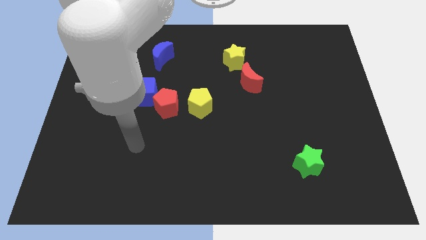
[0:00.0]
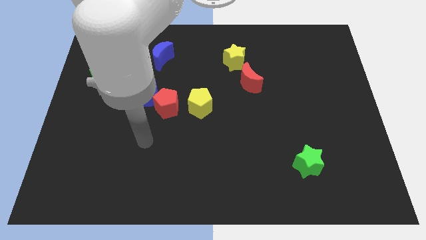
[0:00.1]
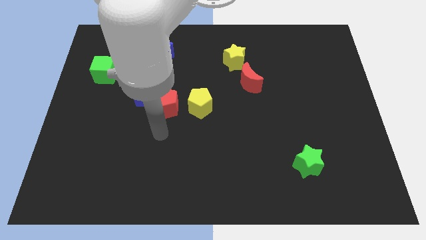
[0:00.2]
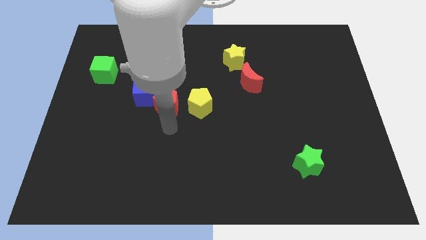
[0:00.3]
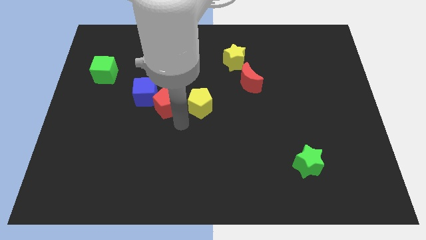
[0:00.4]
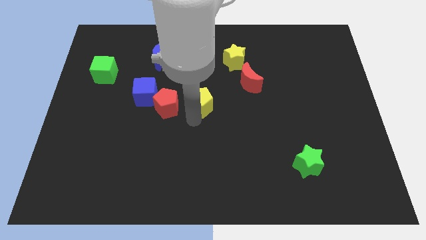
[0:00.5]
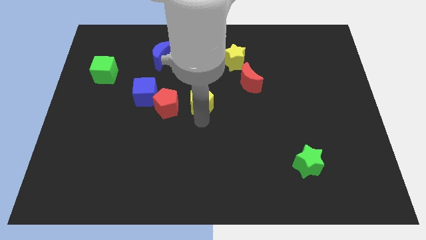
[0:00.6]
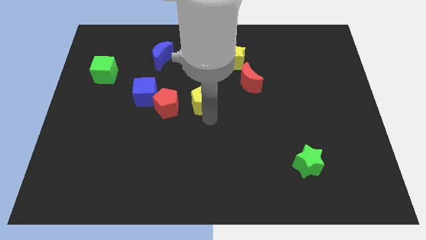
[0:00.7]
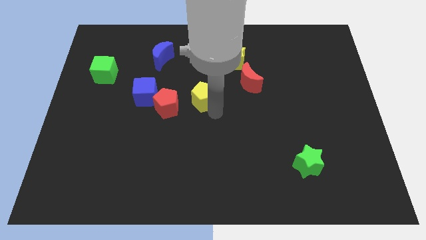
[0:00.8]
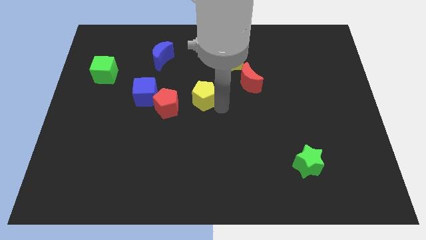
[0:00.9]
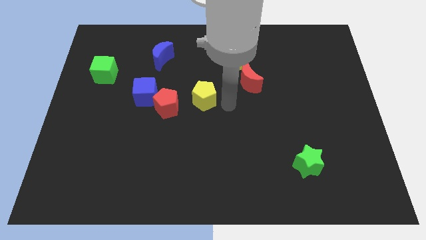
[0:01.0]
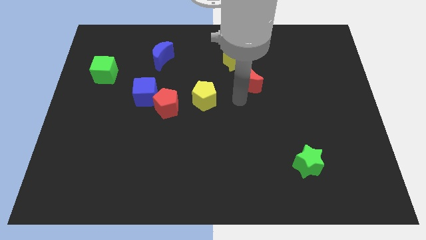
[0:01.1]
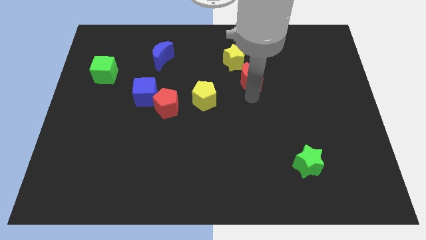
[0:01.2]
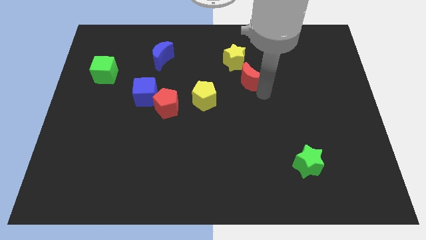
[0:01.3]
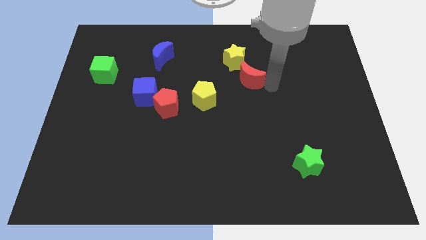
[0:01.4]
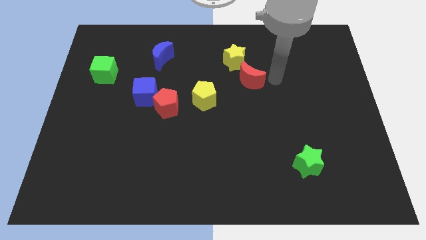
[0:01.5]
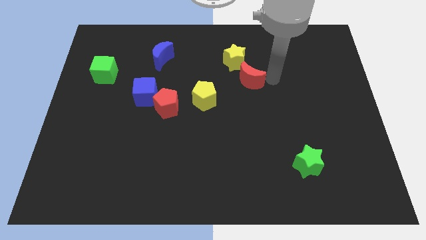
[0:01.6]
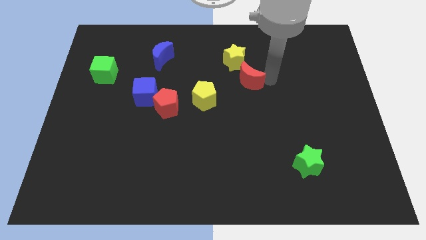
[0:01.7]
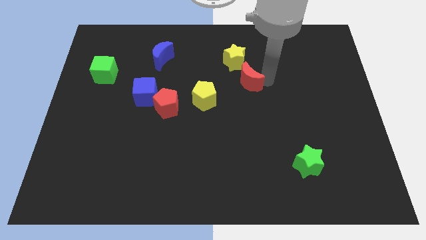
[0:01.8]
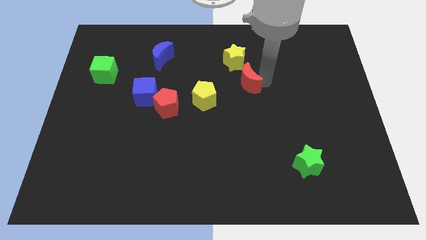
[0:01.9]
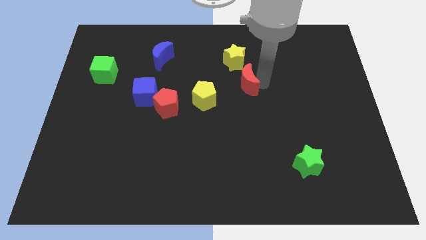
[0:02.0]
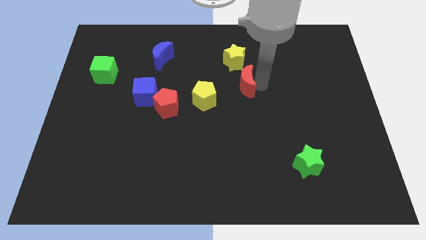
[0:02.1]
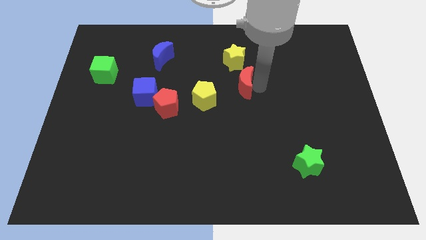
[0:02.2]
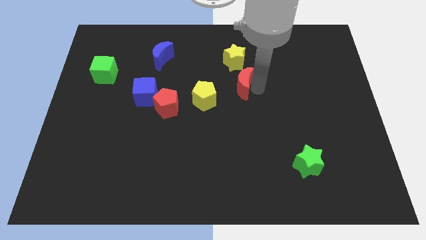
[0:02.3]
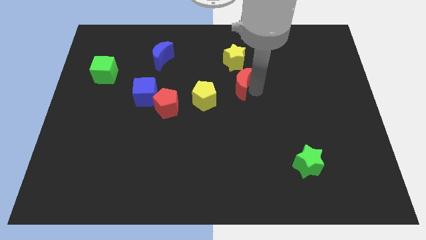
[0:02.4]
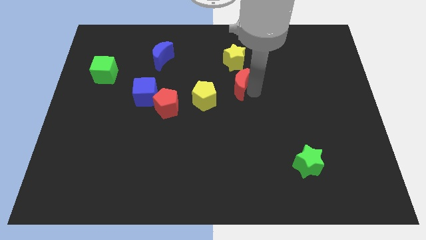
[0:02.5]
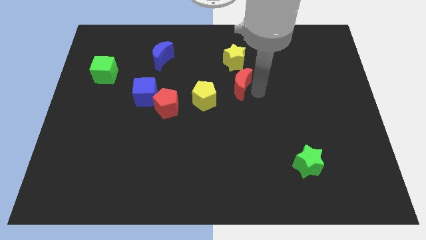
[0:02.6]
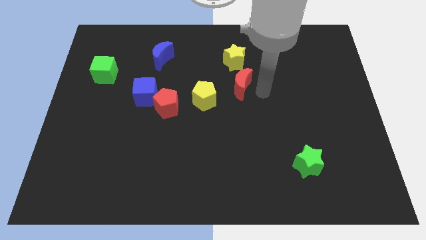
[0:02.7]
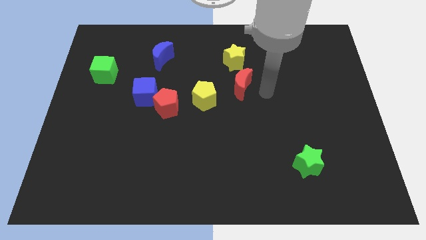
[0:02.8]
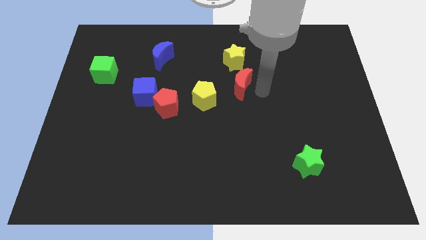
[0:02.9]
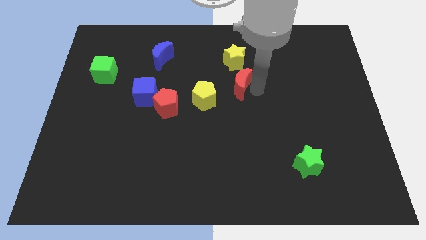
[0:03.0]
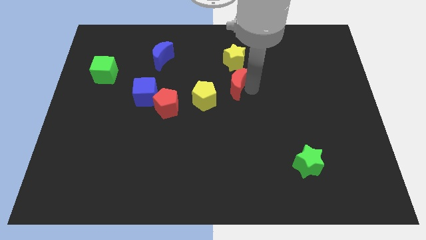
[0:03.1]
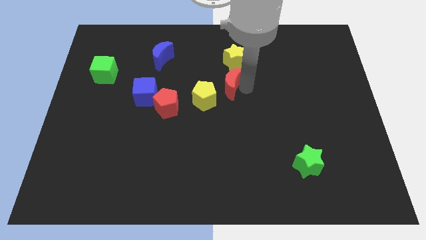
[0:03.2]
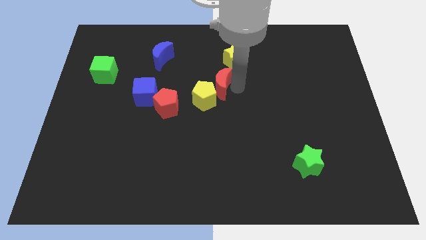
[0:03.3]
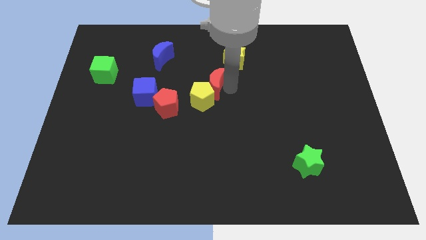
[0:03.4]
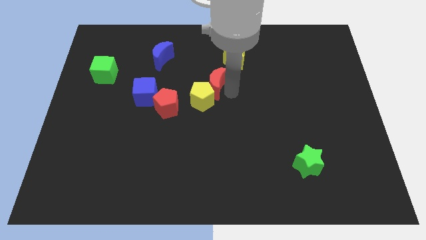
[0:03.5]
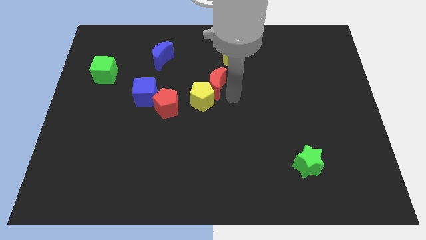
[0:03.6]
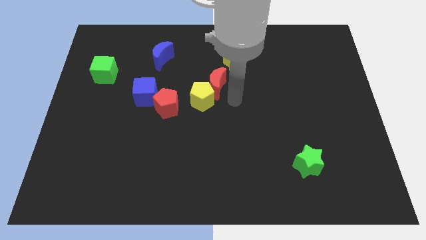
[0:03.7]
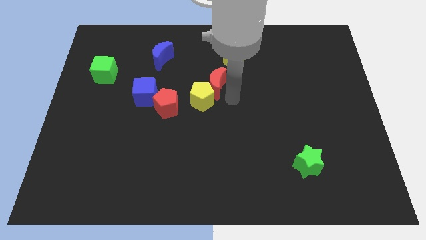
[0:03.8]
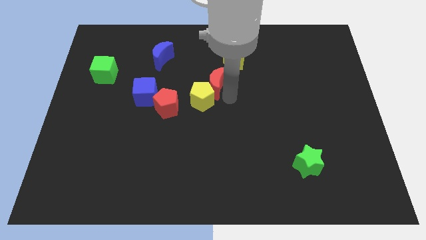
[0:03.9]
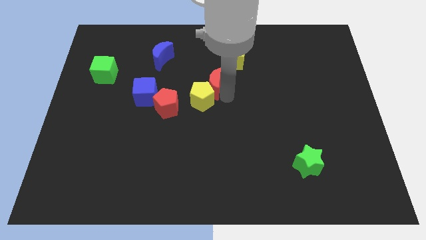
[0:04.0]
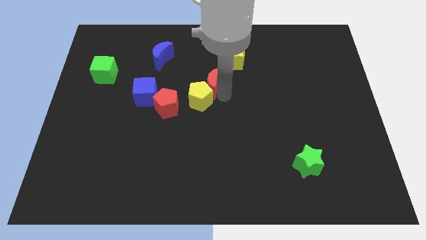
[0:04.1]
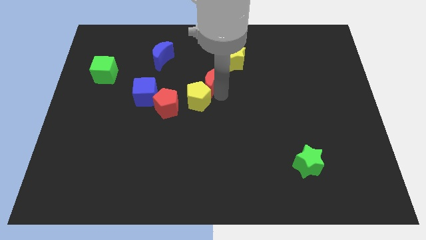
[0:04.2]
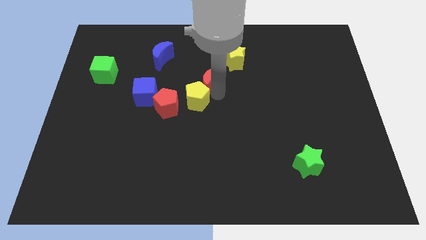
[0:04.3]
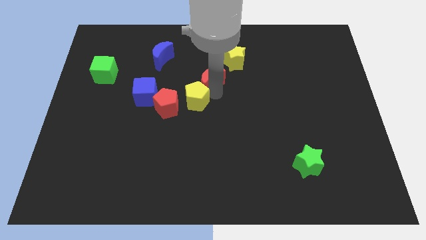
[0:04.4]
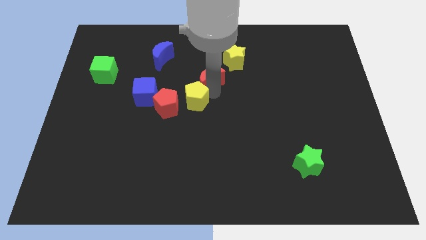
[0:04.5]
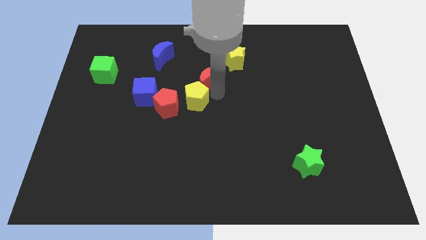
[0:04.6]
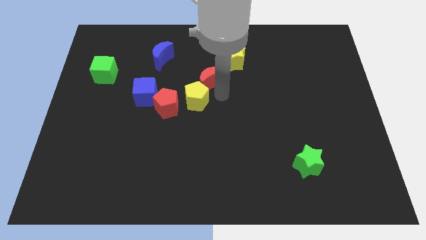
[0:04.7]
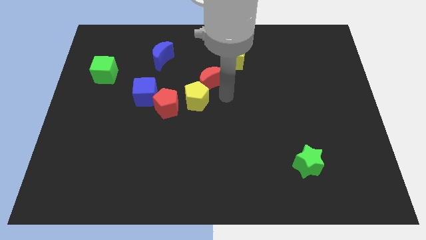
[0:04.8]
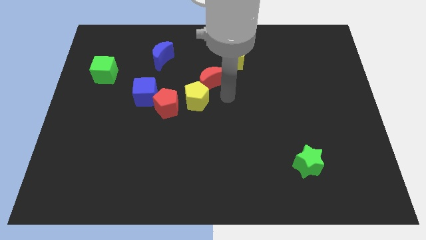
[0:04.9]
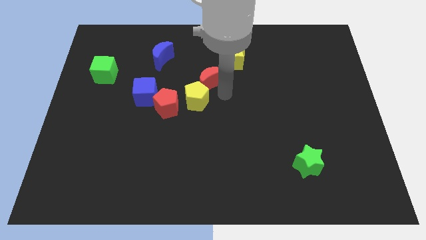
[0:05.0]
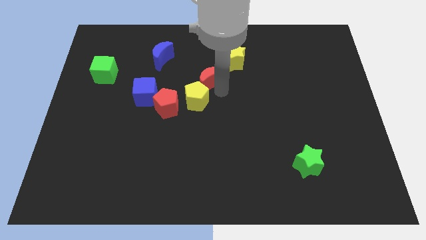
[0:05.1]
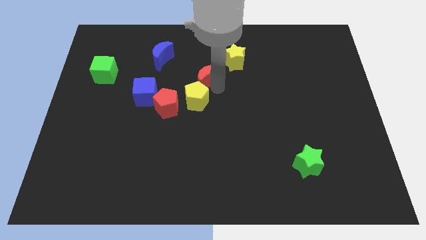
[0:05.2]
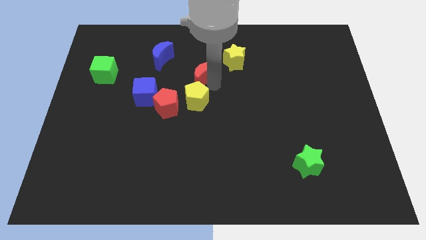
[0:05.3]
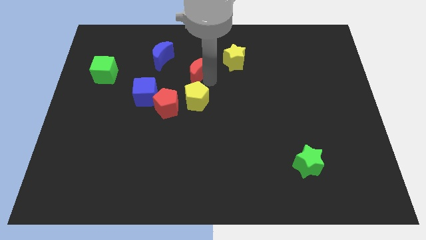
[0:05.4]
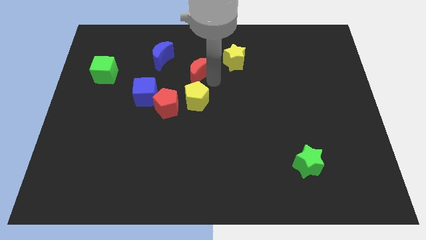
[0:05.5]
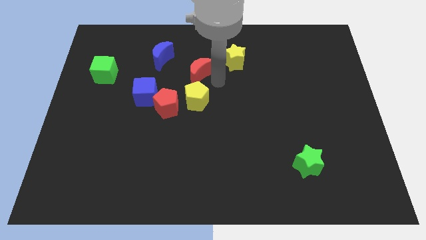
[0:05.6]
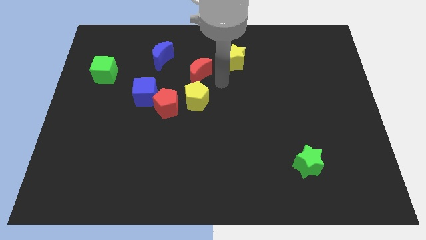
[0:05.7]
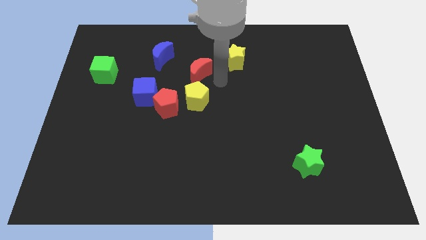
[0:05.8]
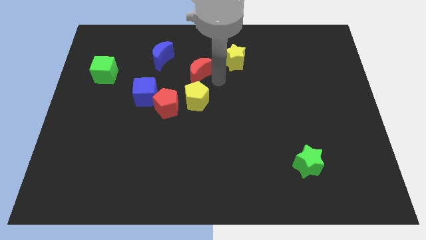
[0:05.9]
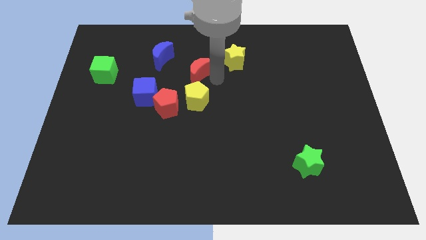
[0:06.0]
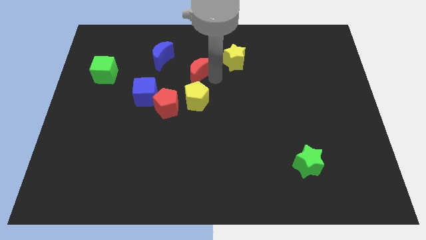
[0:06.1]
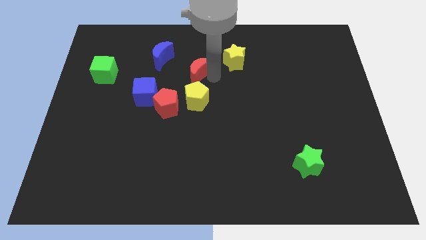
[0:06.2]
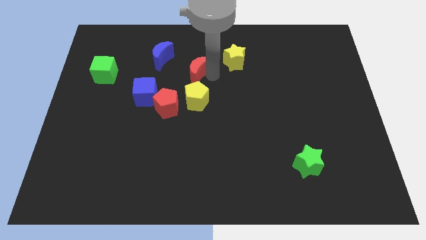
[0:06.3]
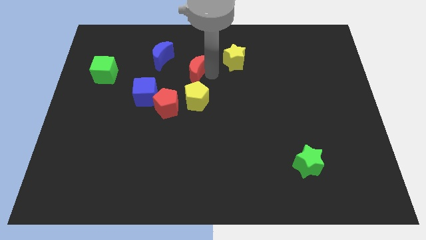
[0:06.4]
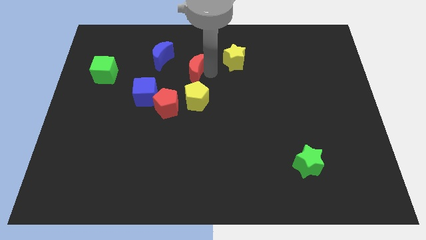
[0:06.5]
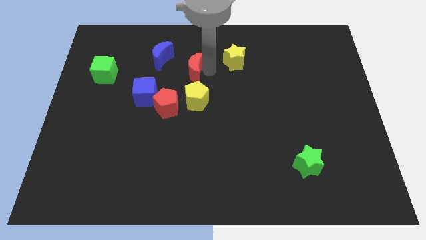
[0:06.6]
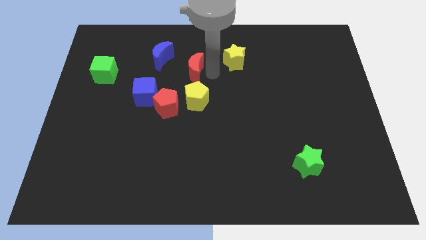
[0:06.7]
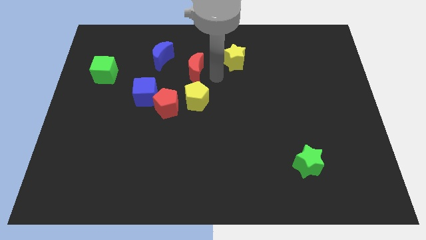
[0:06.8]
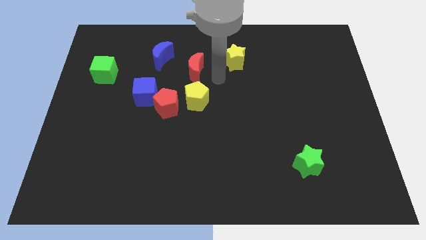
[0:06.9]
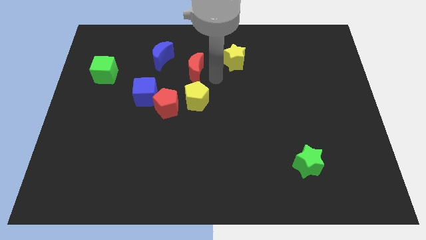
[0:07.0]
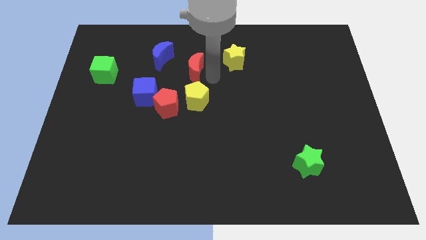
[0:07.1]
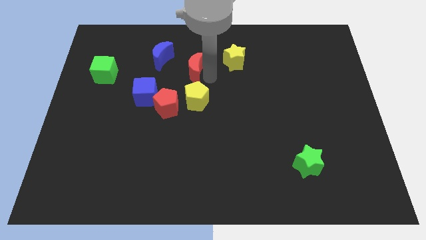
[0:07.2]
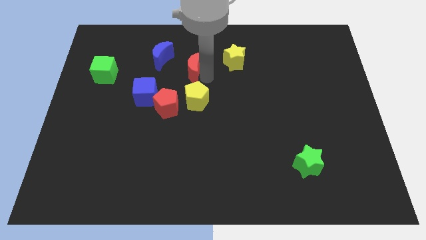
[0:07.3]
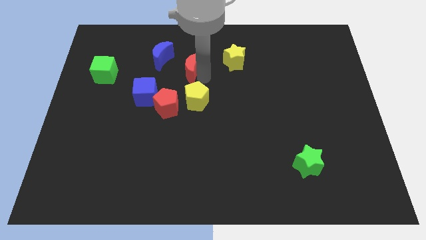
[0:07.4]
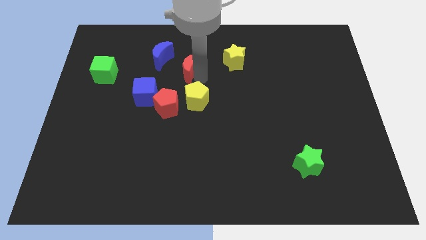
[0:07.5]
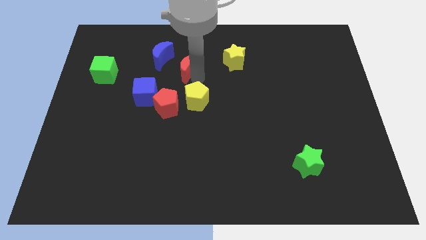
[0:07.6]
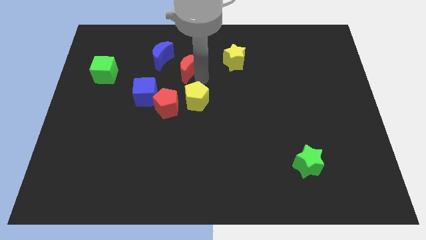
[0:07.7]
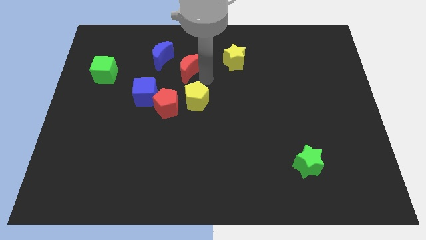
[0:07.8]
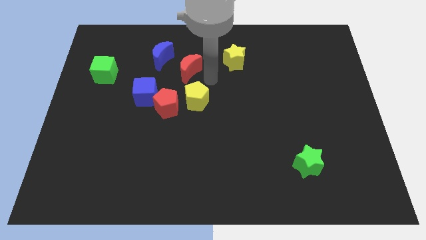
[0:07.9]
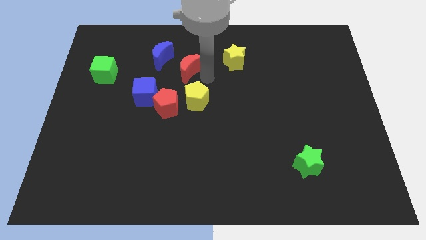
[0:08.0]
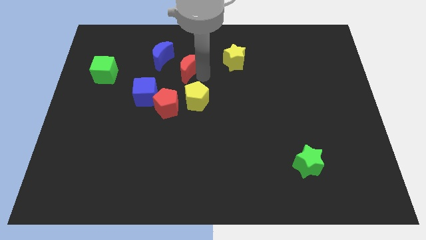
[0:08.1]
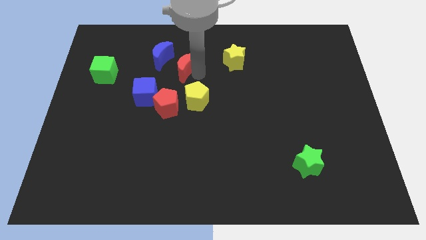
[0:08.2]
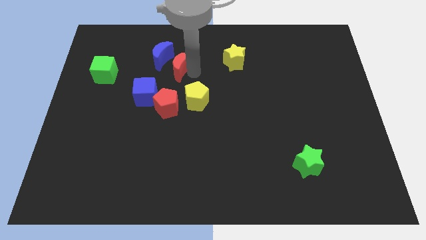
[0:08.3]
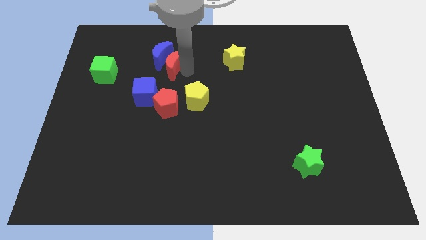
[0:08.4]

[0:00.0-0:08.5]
put the red moon towards the blue moon
